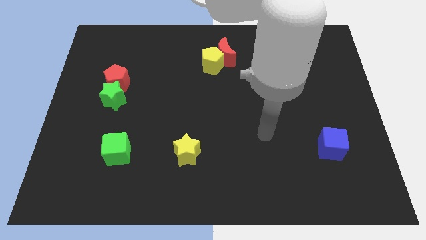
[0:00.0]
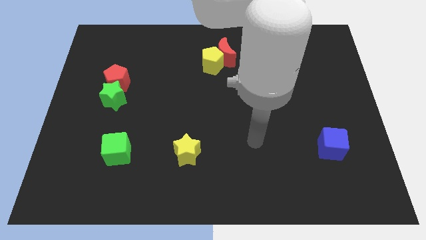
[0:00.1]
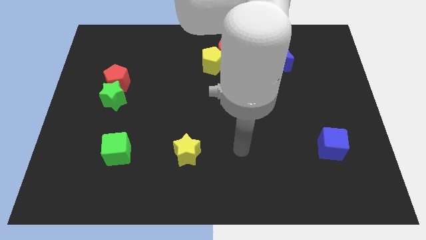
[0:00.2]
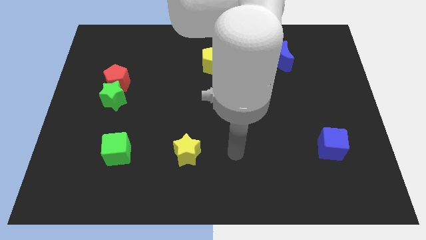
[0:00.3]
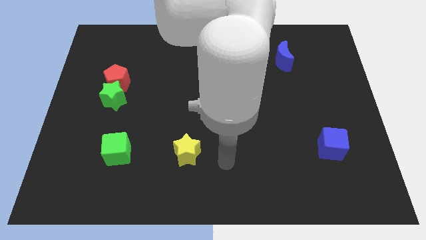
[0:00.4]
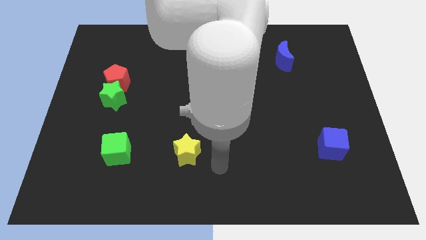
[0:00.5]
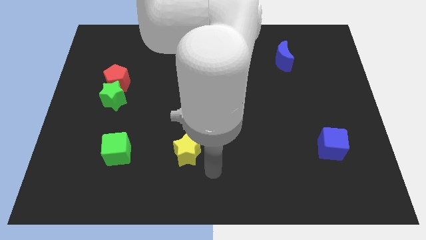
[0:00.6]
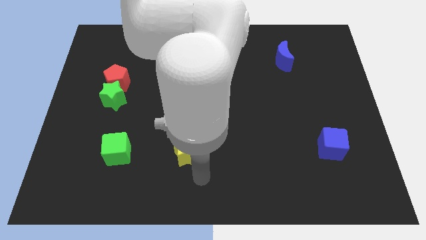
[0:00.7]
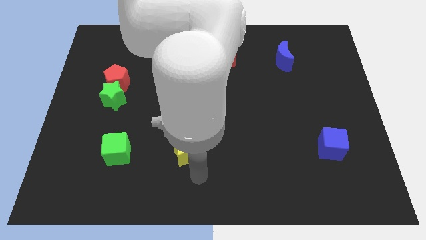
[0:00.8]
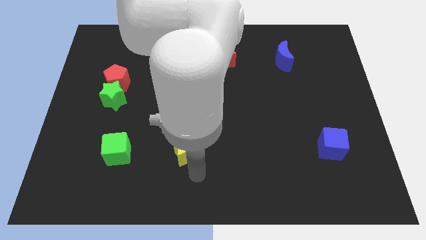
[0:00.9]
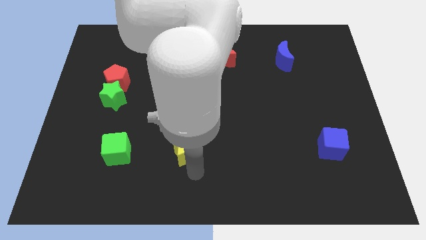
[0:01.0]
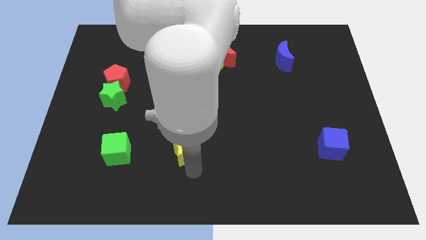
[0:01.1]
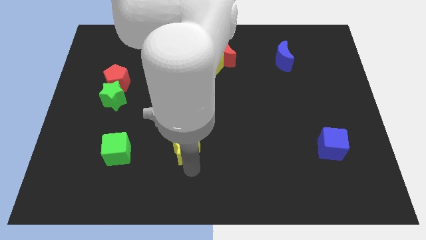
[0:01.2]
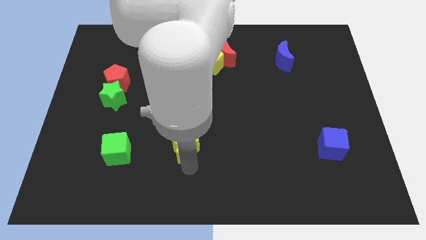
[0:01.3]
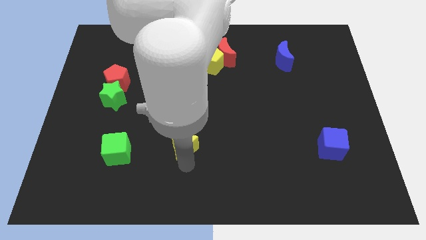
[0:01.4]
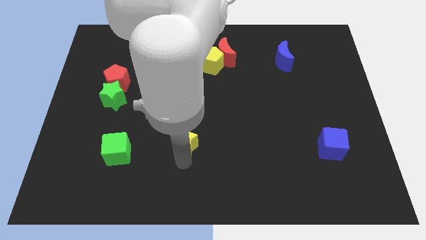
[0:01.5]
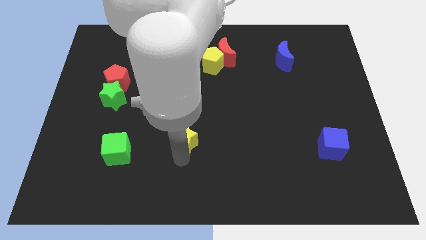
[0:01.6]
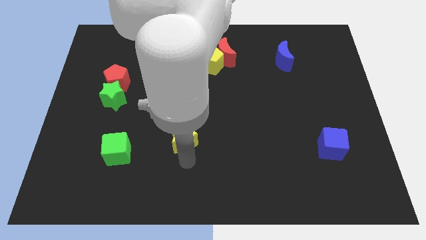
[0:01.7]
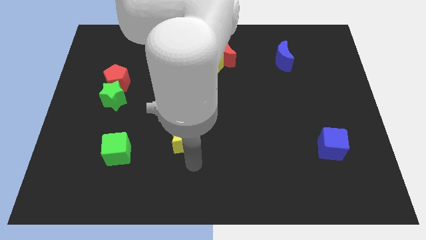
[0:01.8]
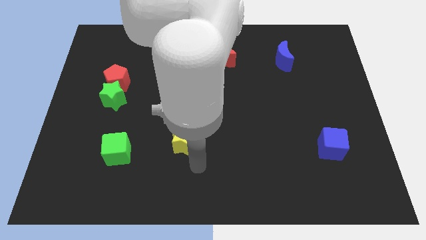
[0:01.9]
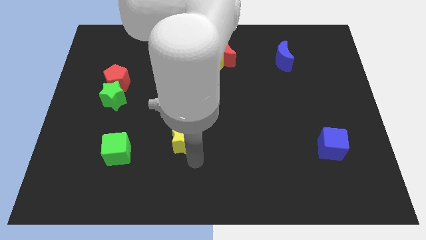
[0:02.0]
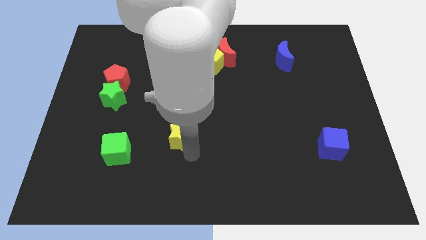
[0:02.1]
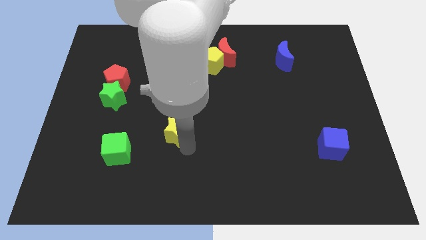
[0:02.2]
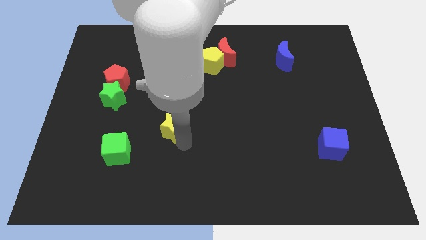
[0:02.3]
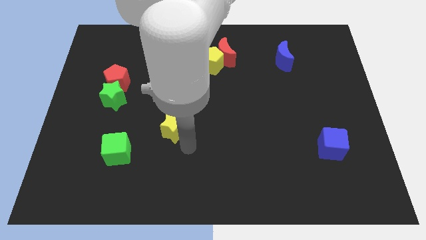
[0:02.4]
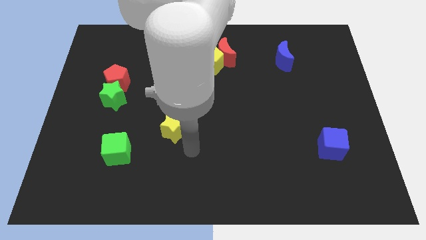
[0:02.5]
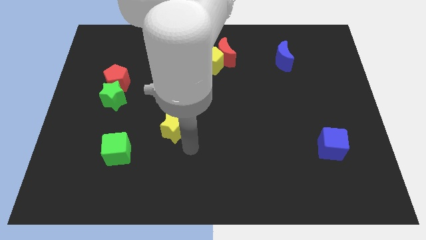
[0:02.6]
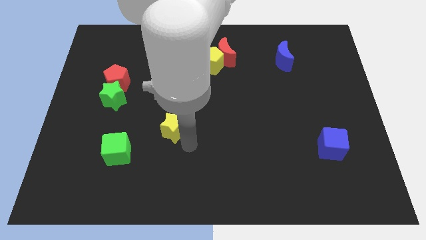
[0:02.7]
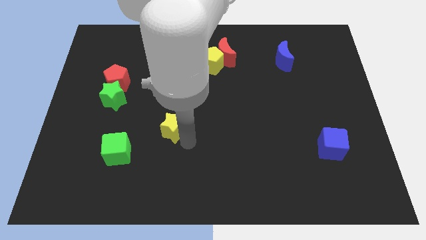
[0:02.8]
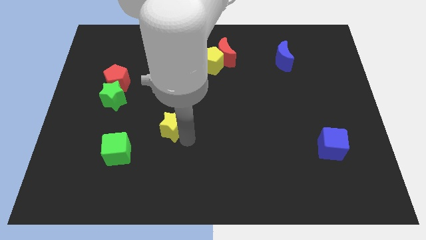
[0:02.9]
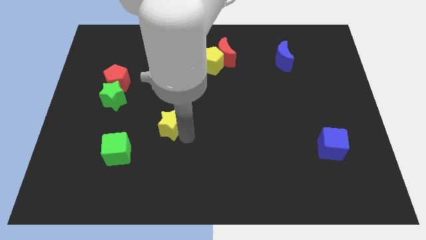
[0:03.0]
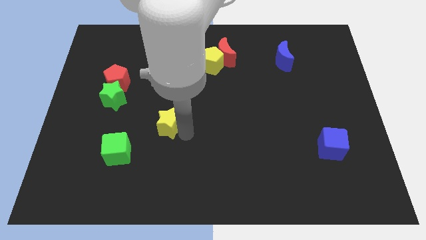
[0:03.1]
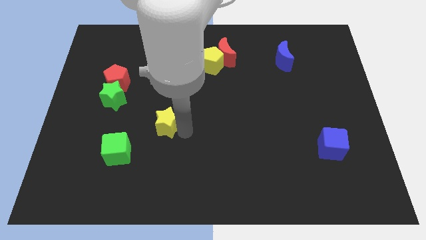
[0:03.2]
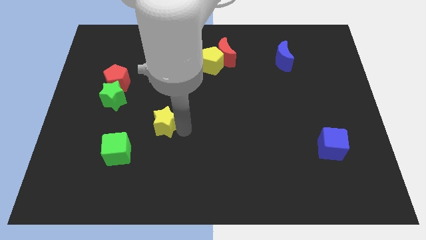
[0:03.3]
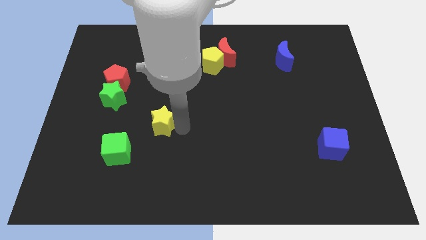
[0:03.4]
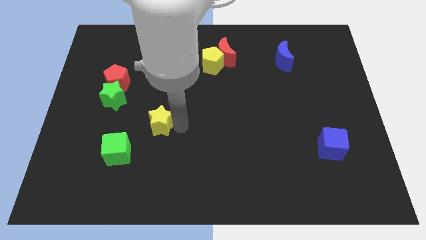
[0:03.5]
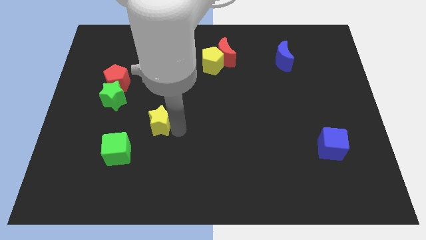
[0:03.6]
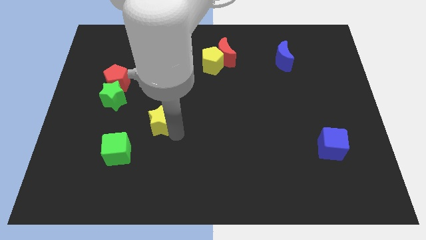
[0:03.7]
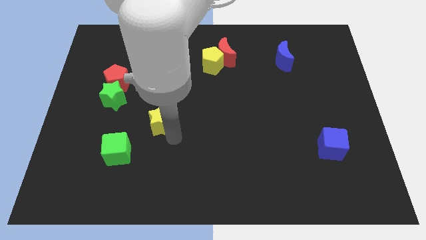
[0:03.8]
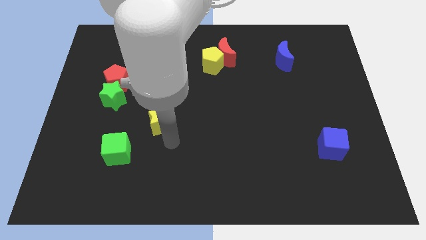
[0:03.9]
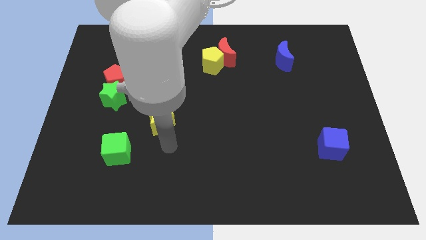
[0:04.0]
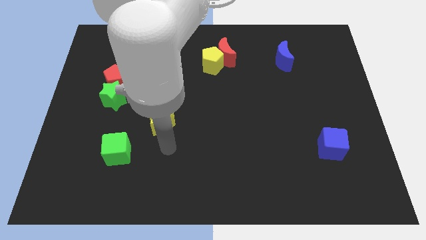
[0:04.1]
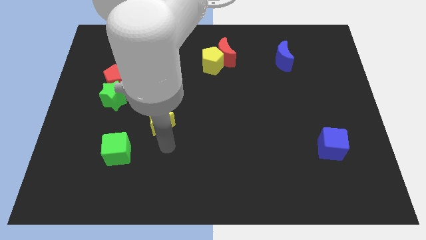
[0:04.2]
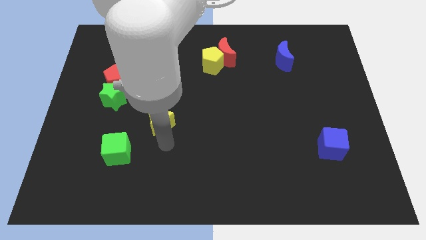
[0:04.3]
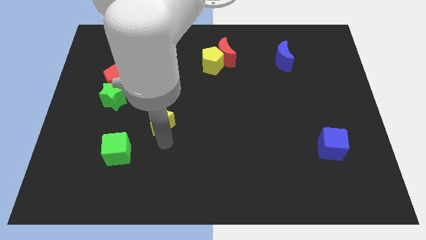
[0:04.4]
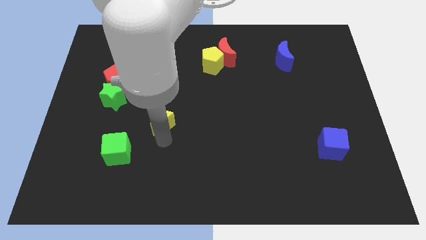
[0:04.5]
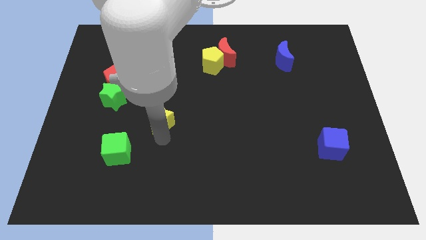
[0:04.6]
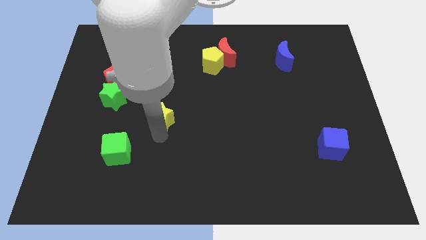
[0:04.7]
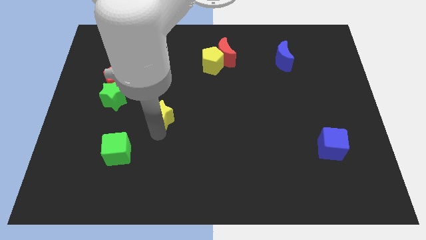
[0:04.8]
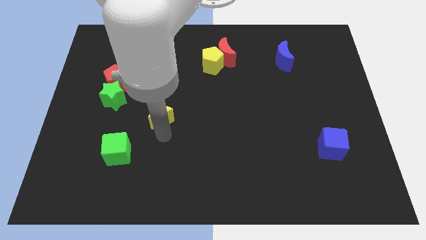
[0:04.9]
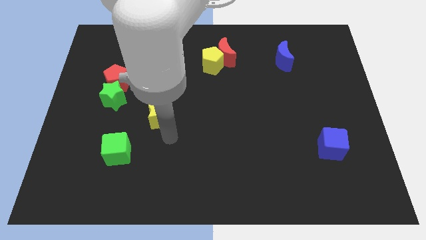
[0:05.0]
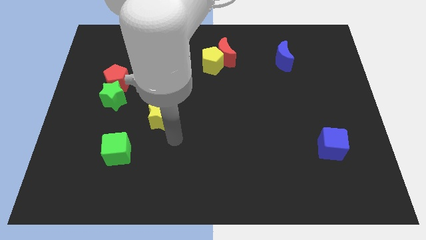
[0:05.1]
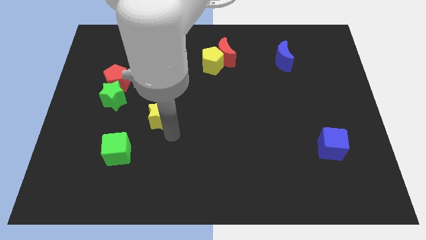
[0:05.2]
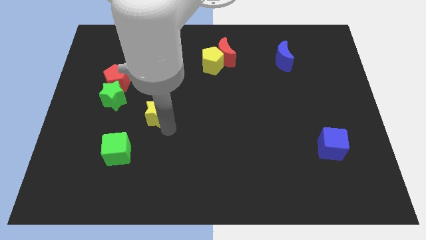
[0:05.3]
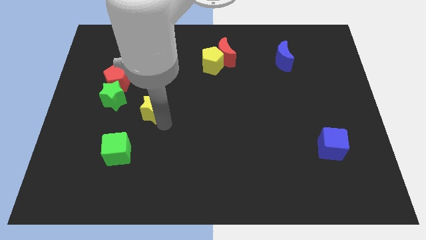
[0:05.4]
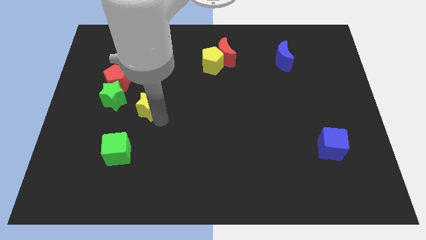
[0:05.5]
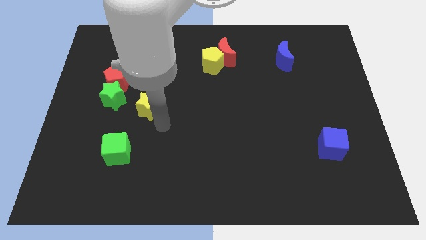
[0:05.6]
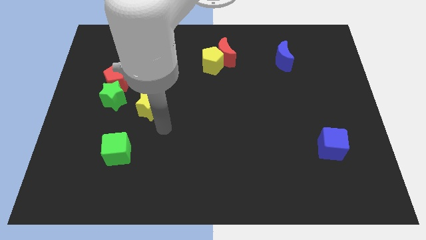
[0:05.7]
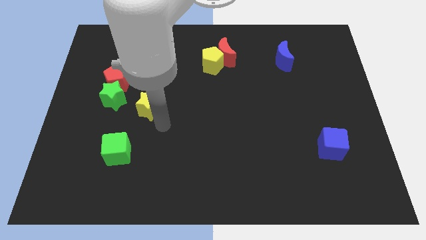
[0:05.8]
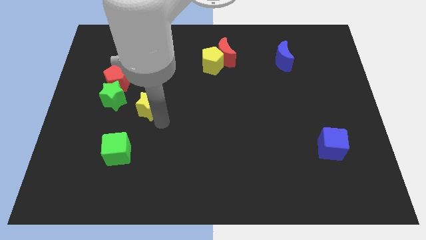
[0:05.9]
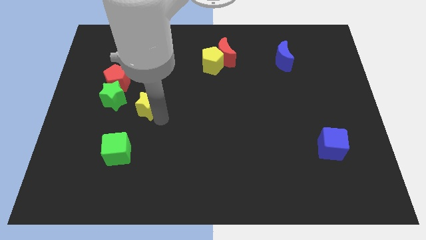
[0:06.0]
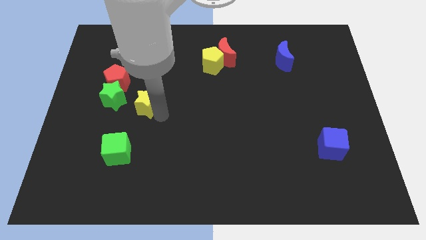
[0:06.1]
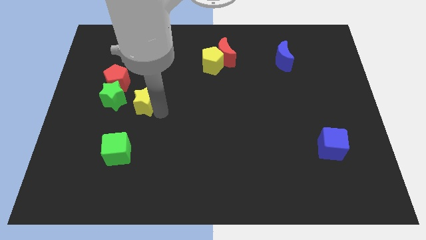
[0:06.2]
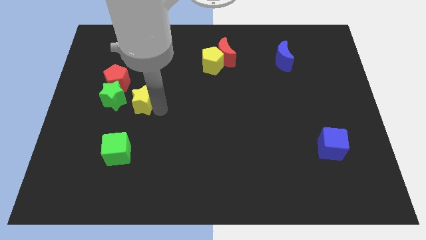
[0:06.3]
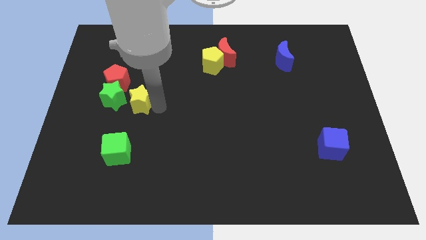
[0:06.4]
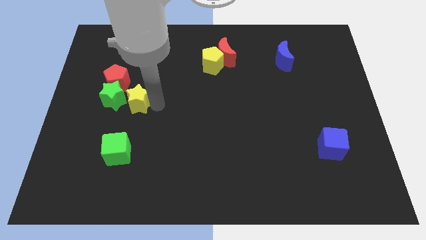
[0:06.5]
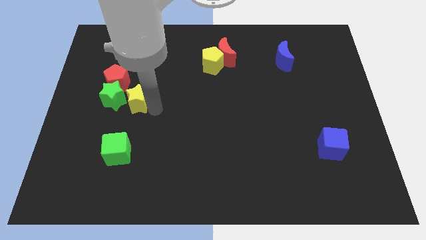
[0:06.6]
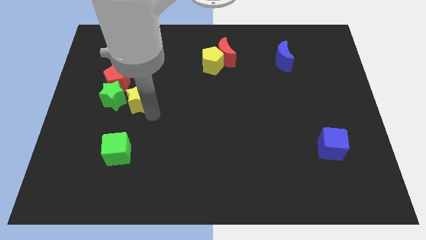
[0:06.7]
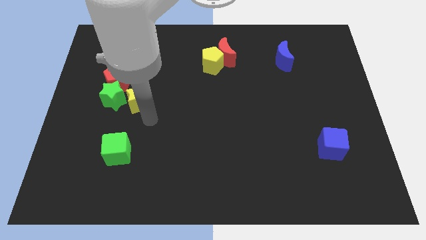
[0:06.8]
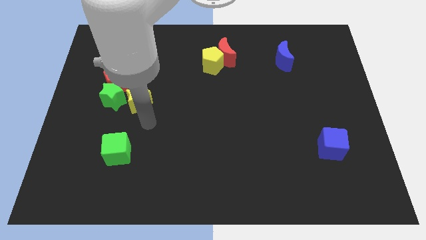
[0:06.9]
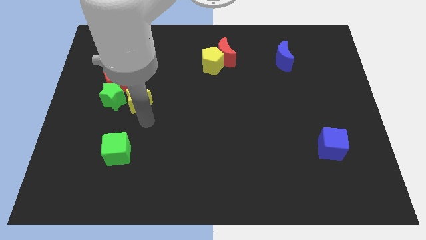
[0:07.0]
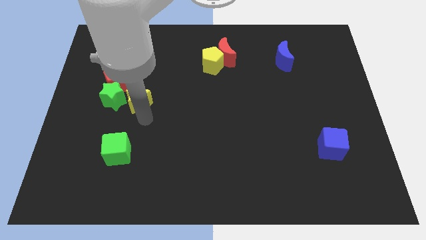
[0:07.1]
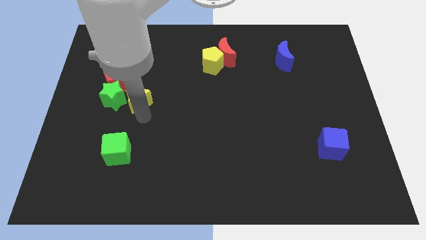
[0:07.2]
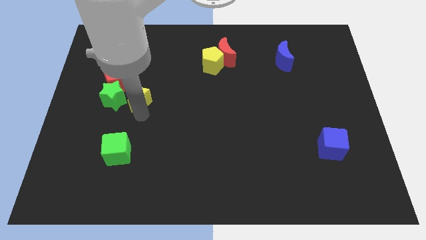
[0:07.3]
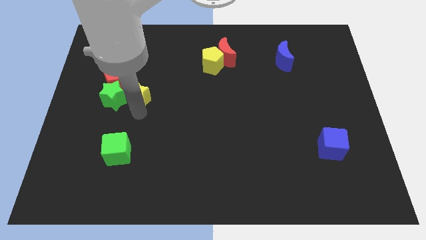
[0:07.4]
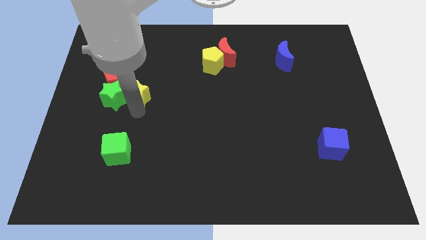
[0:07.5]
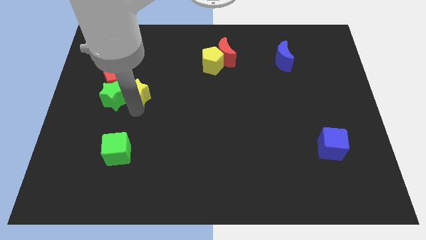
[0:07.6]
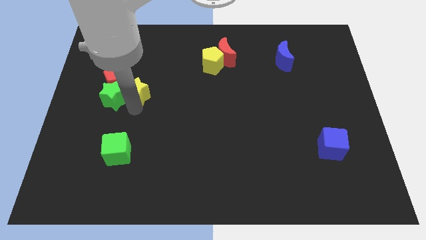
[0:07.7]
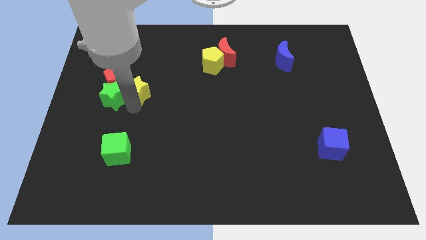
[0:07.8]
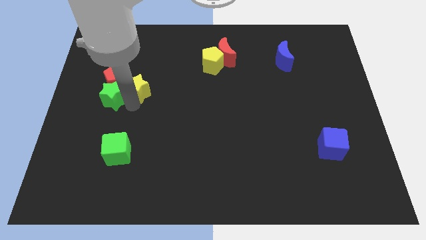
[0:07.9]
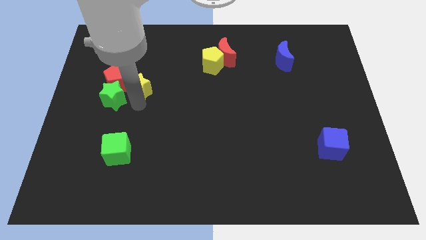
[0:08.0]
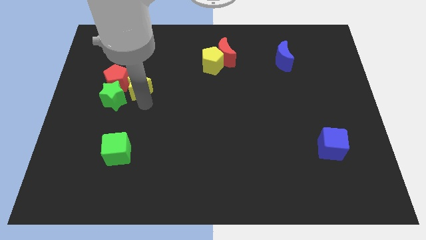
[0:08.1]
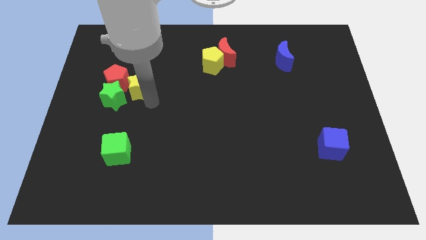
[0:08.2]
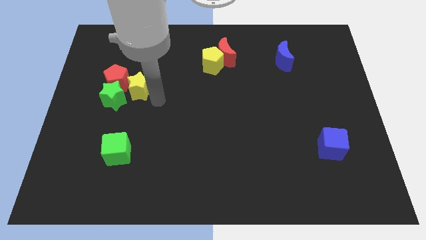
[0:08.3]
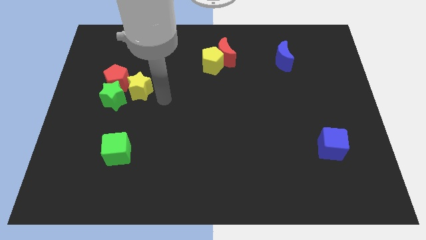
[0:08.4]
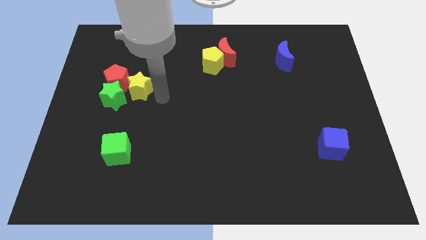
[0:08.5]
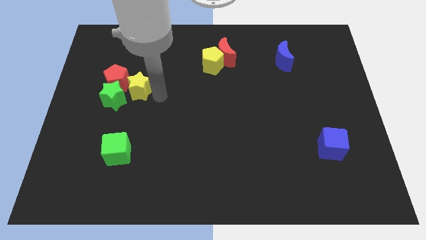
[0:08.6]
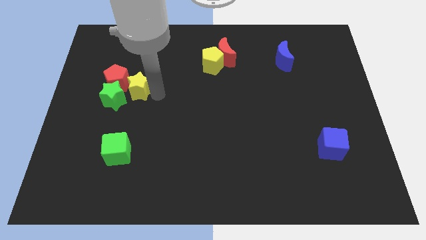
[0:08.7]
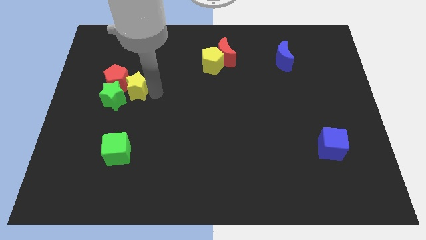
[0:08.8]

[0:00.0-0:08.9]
slide the yellow star close to the red pentagon
